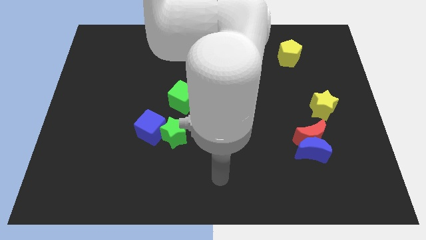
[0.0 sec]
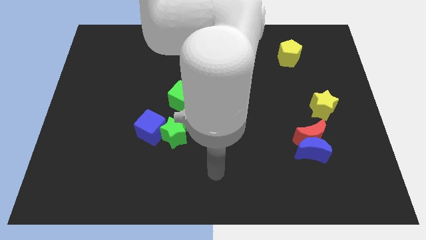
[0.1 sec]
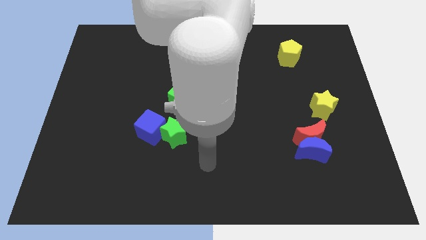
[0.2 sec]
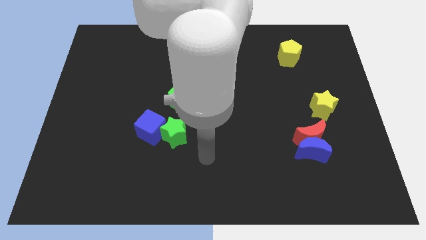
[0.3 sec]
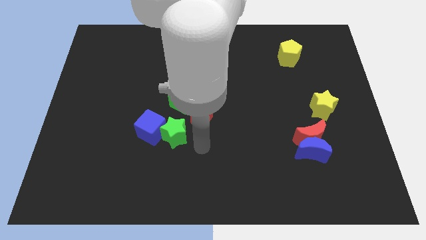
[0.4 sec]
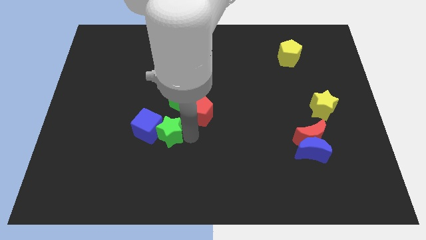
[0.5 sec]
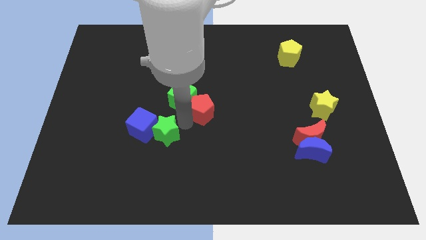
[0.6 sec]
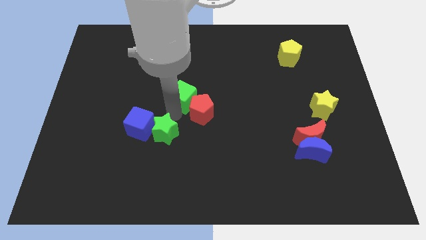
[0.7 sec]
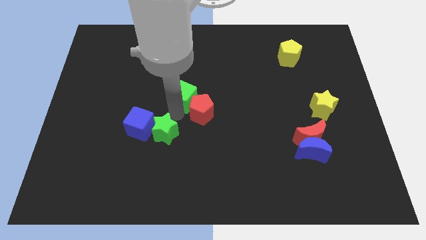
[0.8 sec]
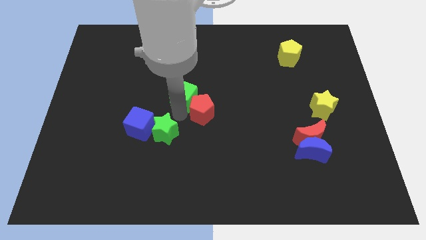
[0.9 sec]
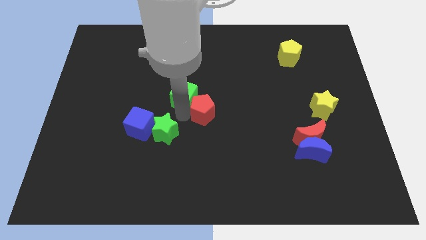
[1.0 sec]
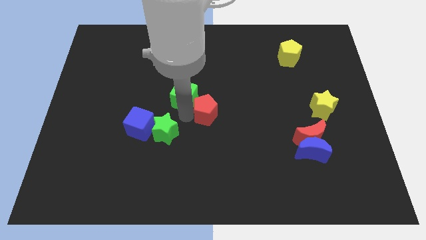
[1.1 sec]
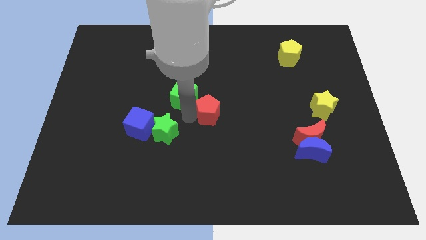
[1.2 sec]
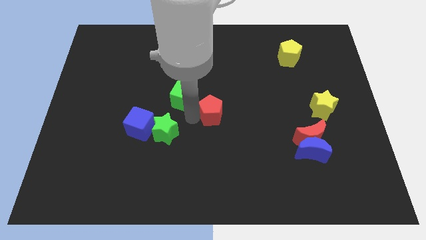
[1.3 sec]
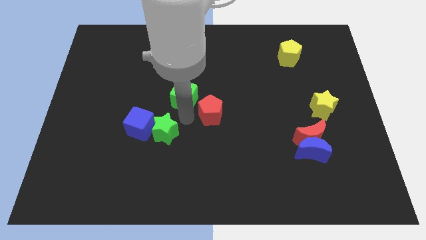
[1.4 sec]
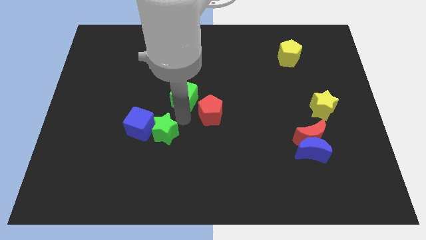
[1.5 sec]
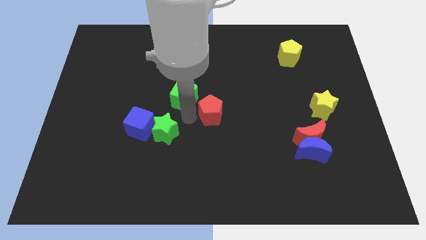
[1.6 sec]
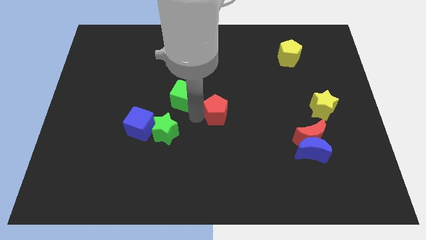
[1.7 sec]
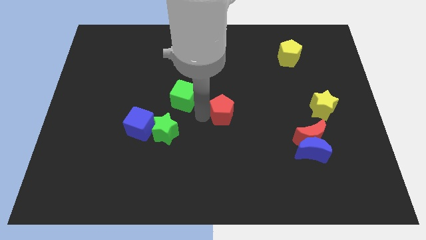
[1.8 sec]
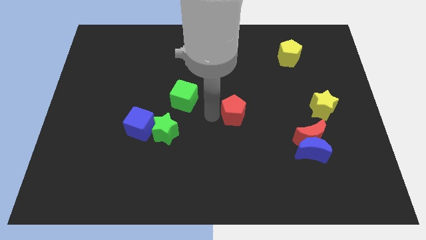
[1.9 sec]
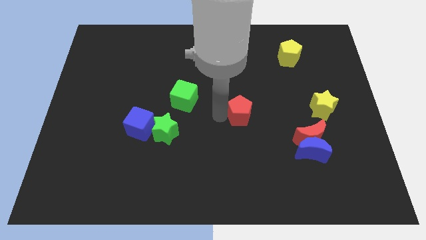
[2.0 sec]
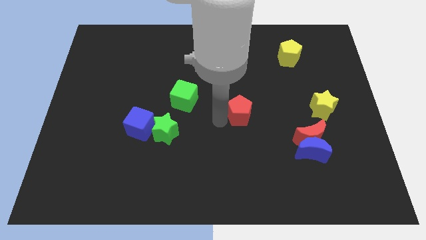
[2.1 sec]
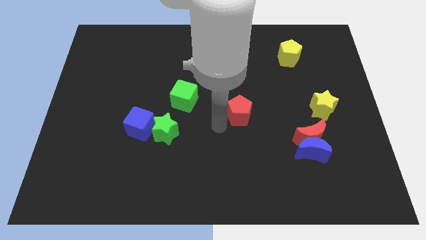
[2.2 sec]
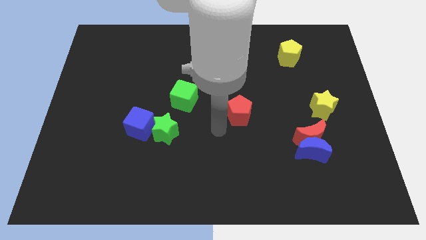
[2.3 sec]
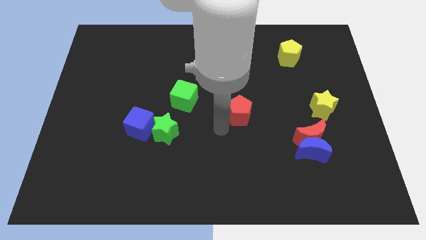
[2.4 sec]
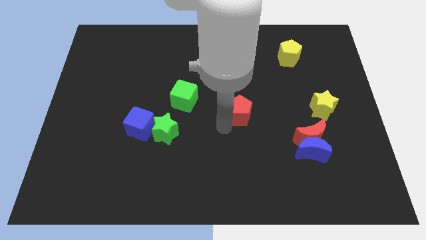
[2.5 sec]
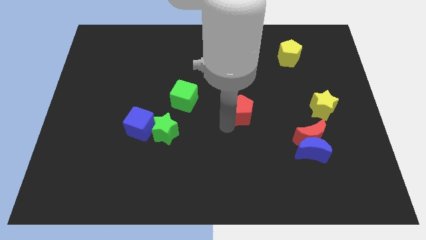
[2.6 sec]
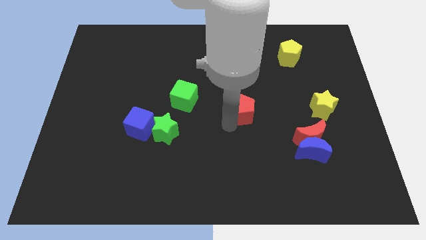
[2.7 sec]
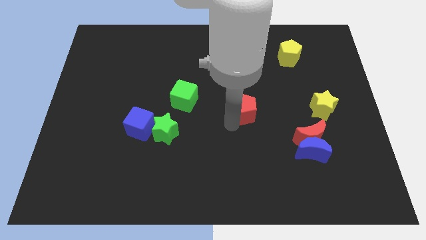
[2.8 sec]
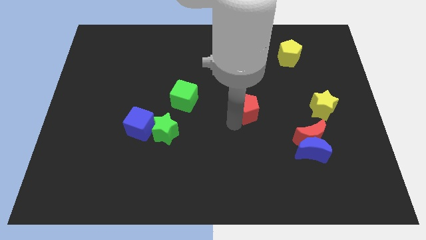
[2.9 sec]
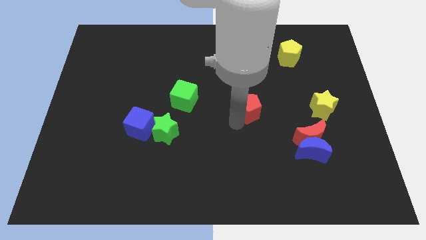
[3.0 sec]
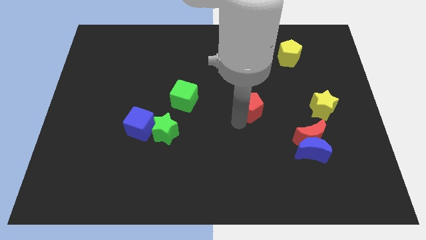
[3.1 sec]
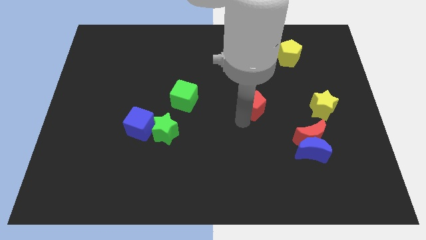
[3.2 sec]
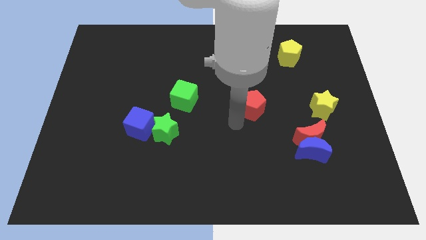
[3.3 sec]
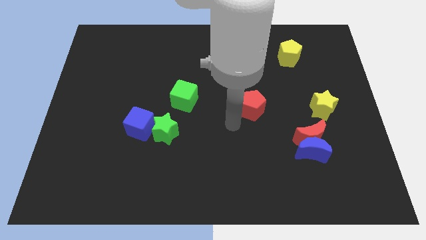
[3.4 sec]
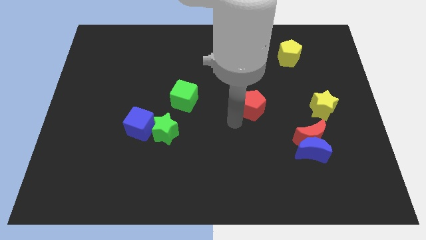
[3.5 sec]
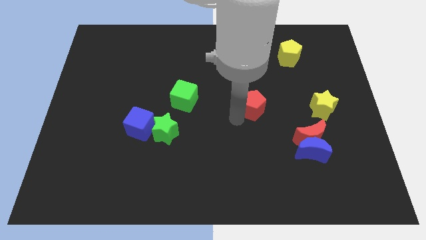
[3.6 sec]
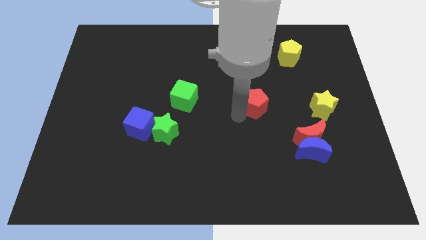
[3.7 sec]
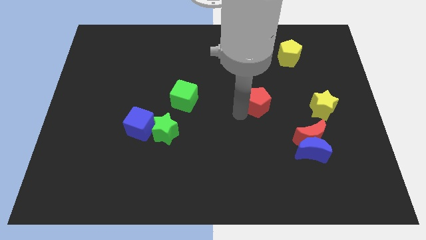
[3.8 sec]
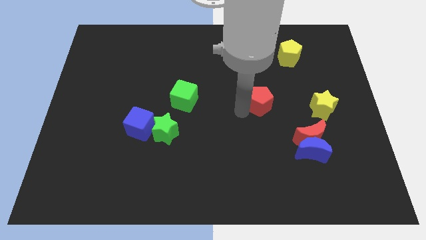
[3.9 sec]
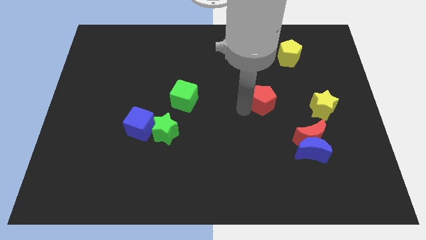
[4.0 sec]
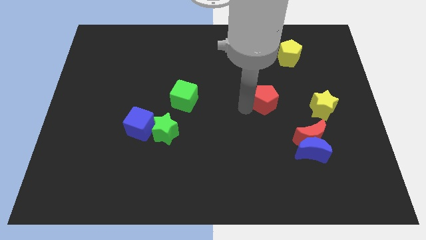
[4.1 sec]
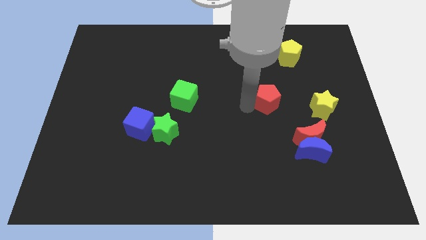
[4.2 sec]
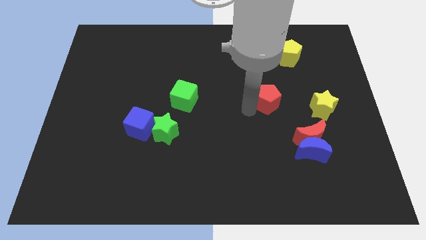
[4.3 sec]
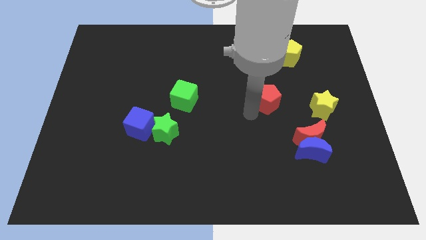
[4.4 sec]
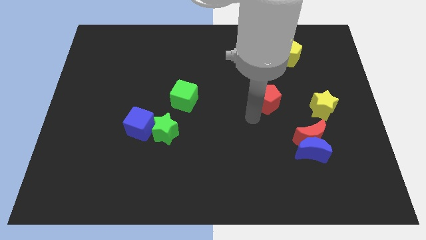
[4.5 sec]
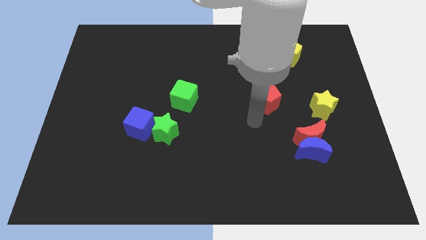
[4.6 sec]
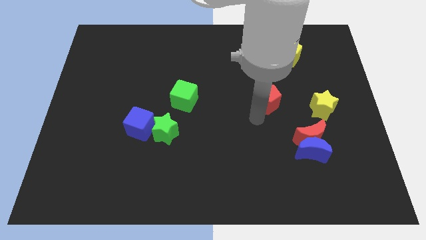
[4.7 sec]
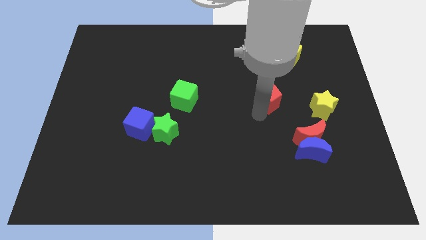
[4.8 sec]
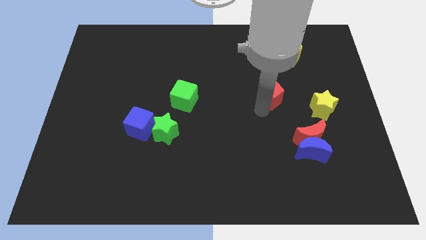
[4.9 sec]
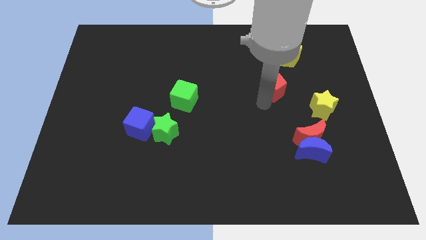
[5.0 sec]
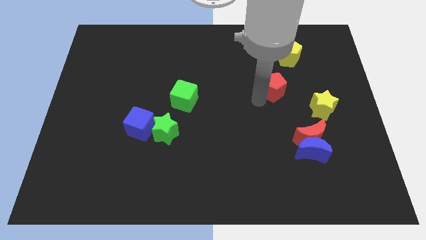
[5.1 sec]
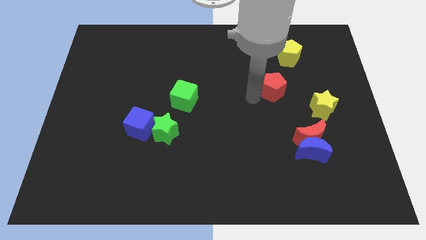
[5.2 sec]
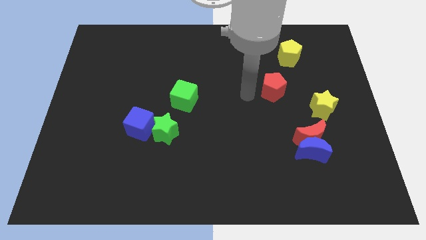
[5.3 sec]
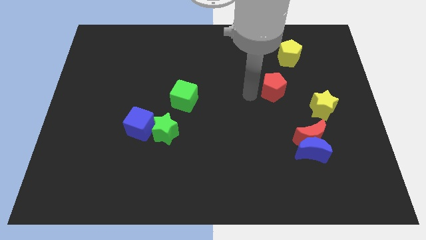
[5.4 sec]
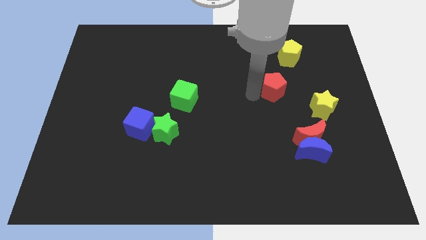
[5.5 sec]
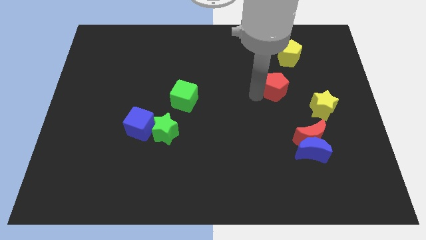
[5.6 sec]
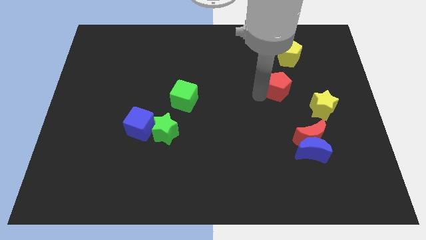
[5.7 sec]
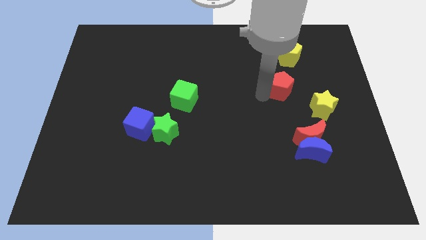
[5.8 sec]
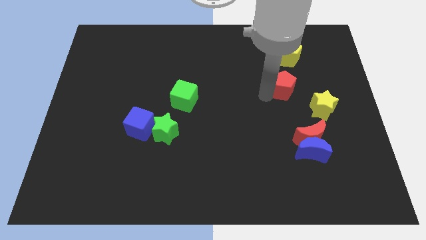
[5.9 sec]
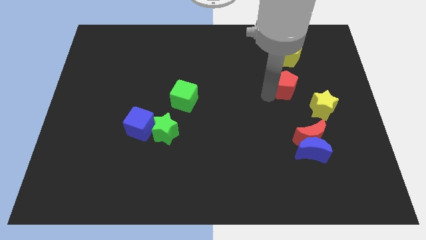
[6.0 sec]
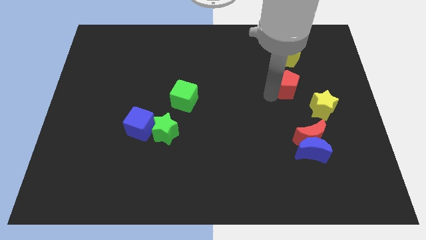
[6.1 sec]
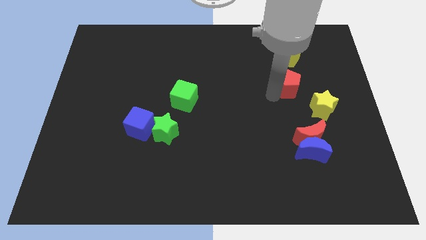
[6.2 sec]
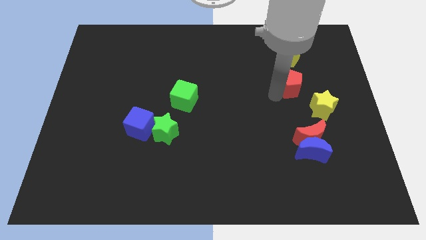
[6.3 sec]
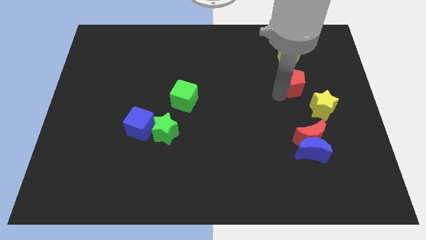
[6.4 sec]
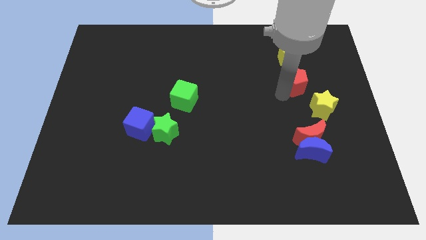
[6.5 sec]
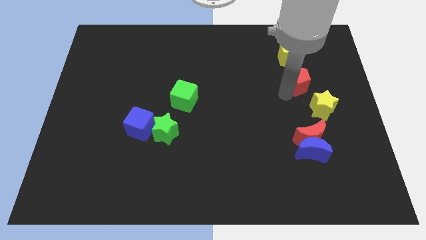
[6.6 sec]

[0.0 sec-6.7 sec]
move the red pentagon above the yellow star
